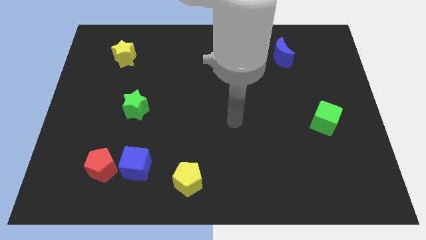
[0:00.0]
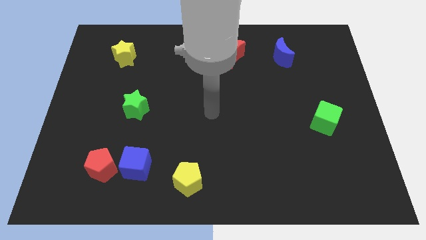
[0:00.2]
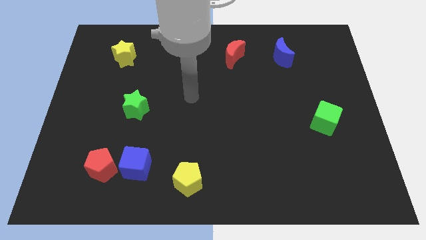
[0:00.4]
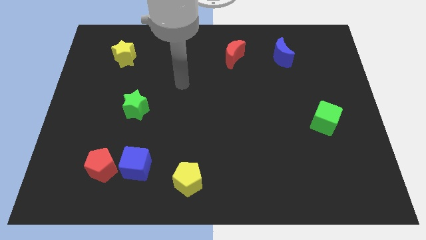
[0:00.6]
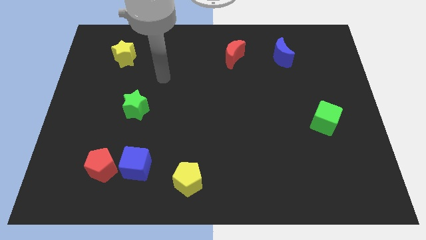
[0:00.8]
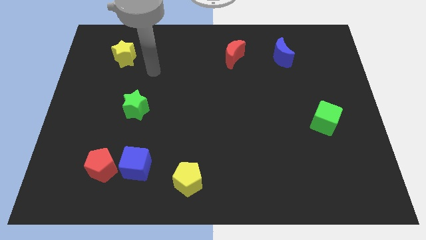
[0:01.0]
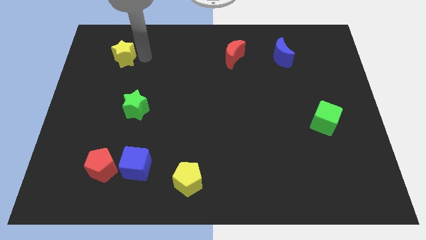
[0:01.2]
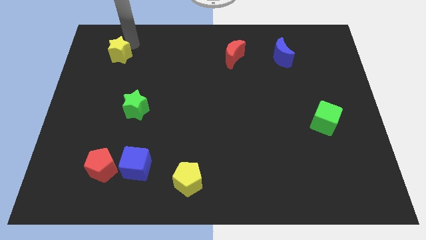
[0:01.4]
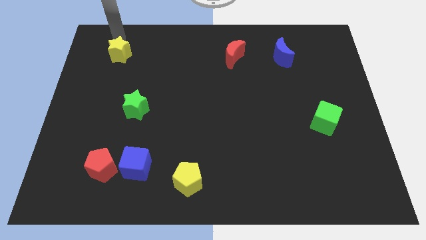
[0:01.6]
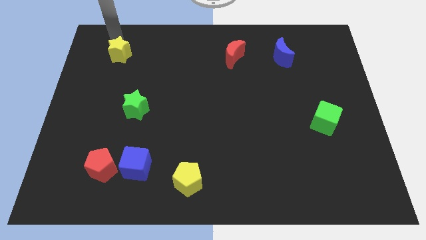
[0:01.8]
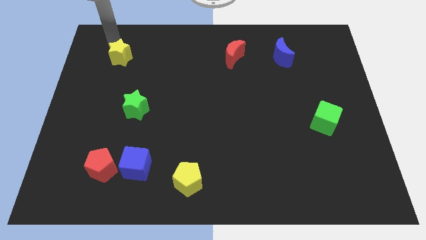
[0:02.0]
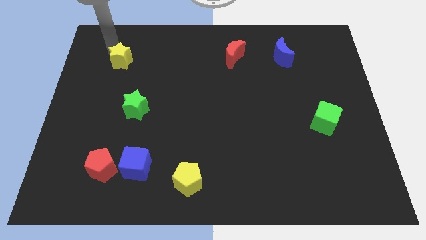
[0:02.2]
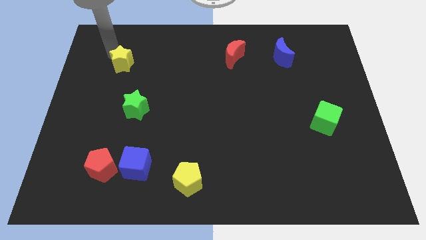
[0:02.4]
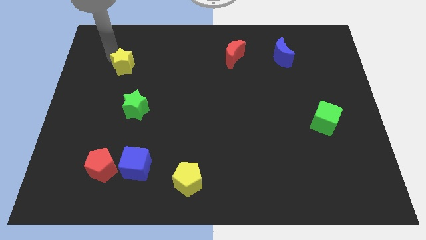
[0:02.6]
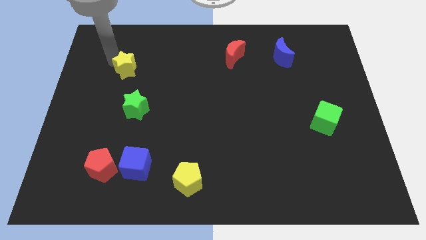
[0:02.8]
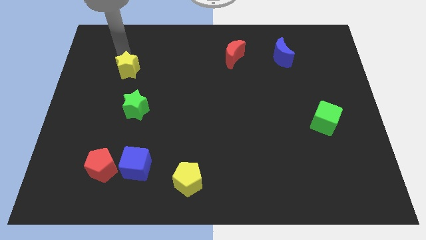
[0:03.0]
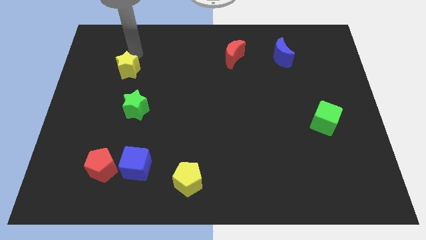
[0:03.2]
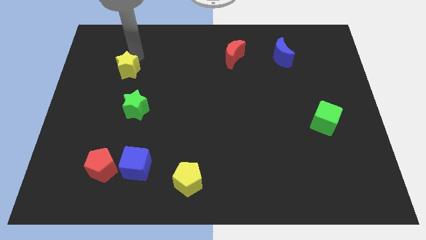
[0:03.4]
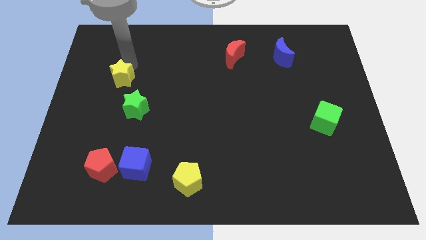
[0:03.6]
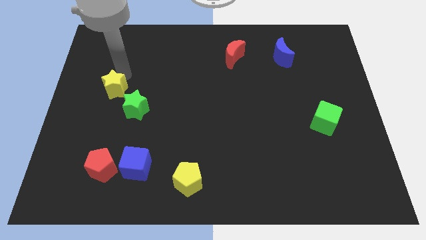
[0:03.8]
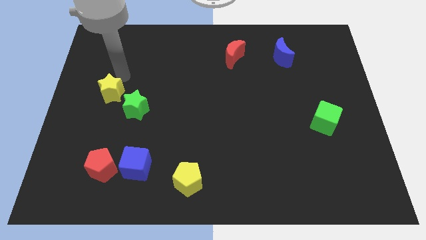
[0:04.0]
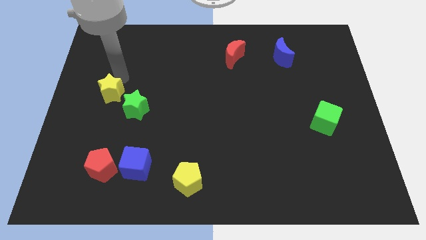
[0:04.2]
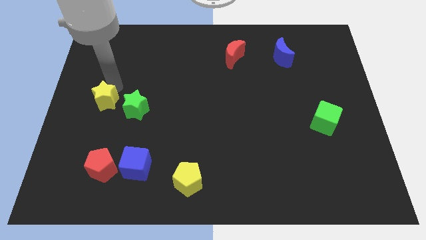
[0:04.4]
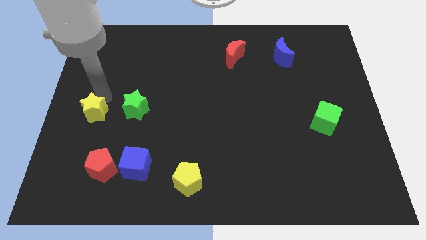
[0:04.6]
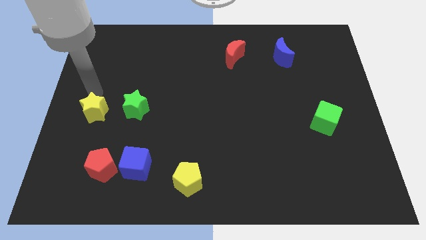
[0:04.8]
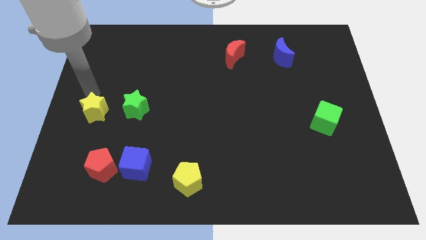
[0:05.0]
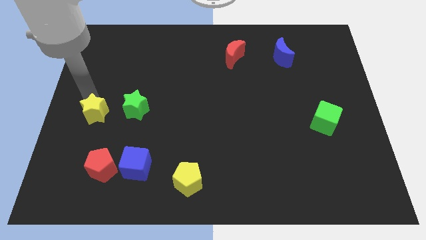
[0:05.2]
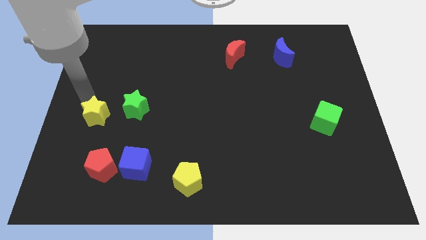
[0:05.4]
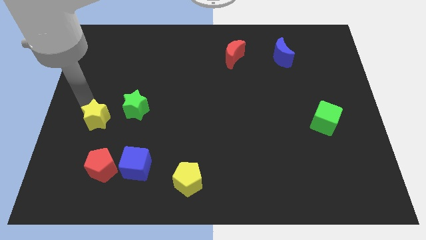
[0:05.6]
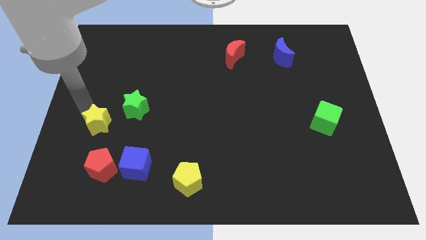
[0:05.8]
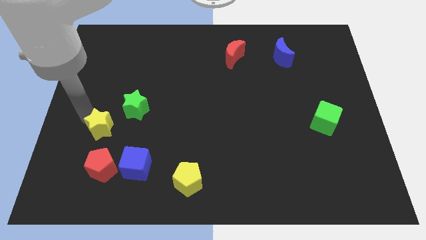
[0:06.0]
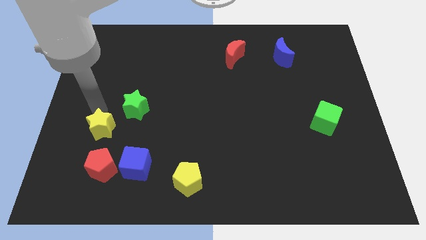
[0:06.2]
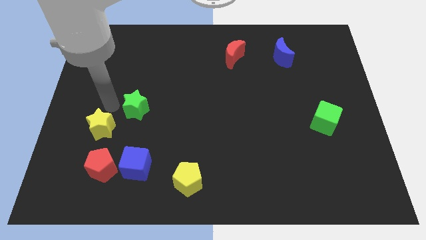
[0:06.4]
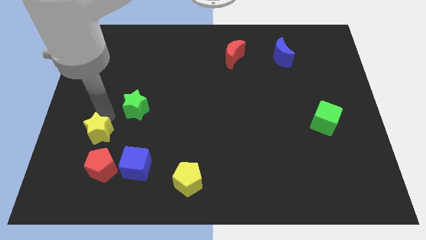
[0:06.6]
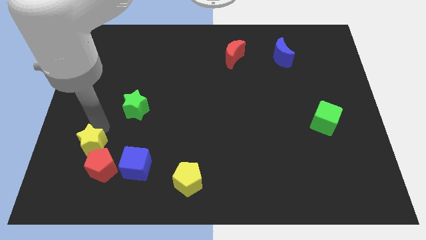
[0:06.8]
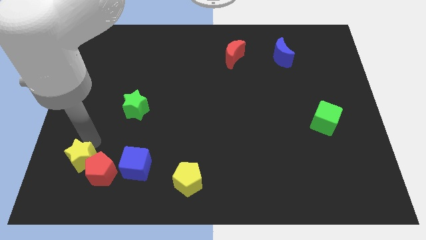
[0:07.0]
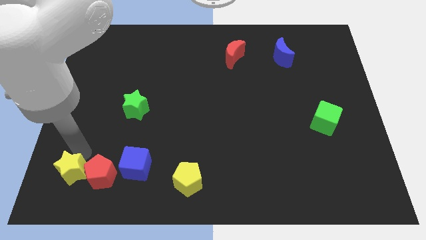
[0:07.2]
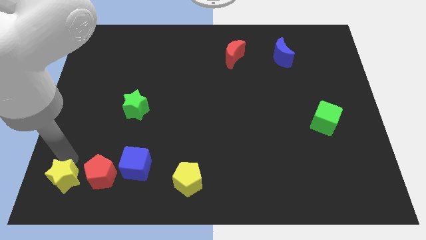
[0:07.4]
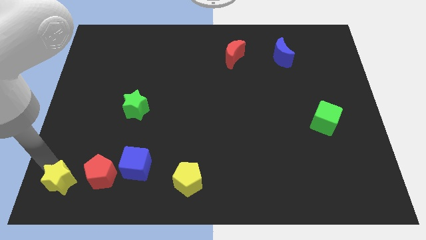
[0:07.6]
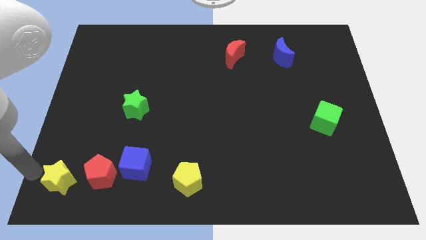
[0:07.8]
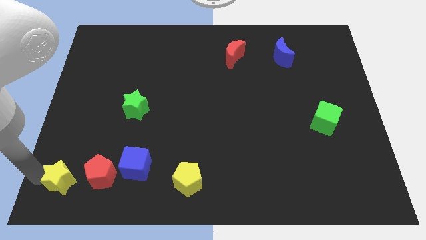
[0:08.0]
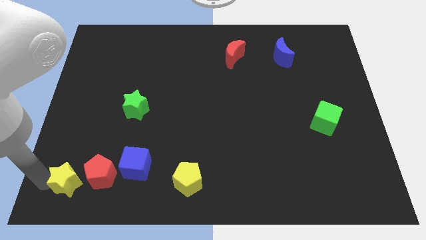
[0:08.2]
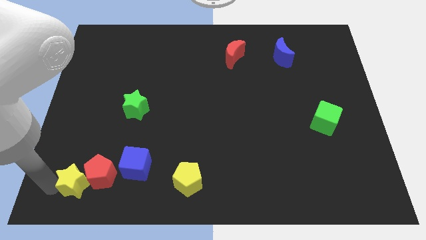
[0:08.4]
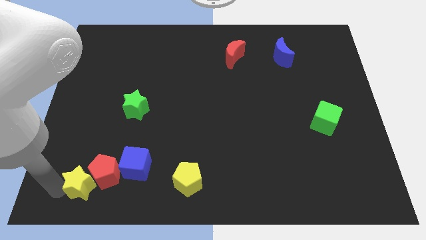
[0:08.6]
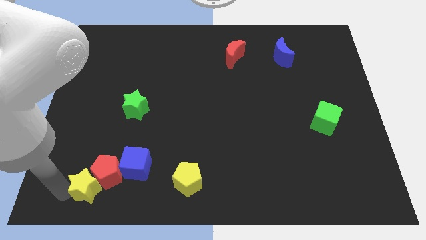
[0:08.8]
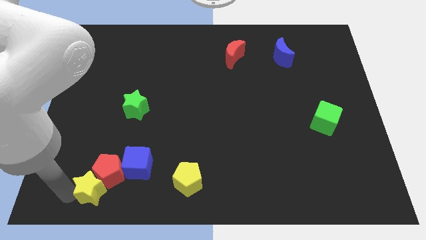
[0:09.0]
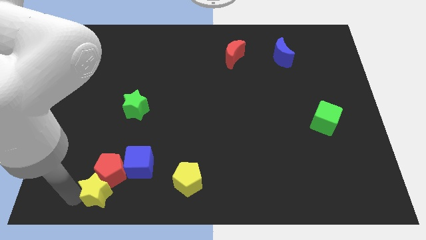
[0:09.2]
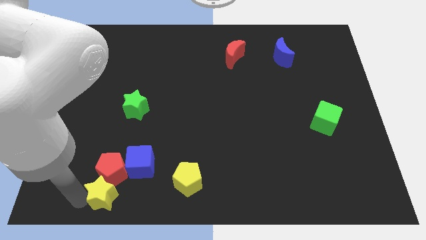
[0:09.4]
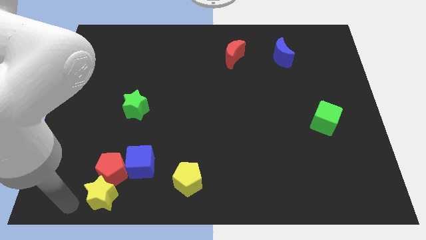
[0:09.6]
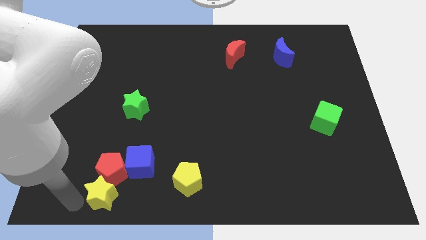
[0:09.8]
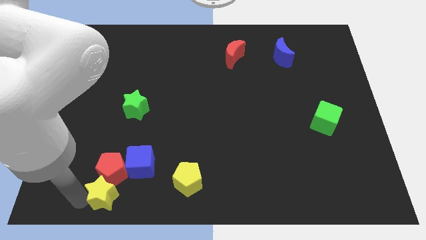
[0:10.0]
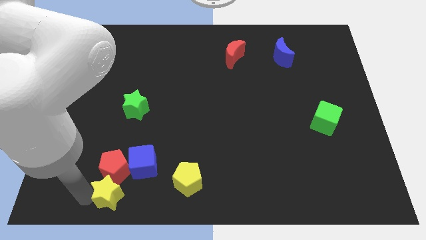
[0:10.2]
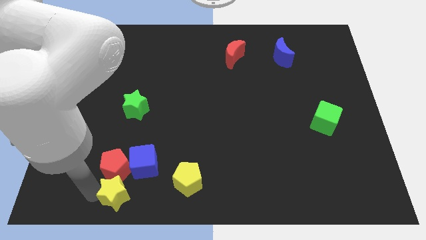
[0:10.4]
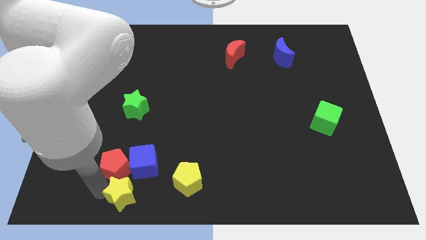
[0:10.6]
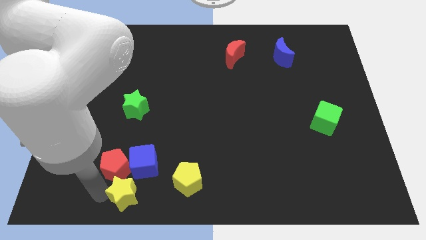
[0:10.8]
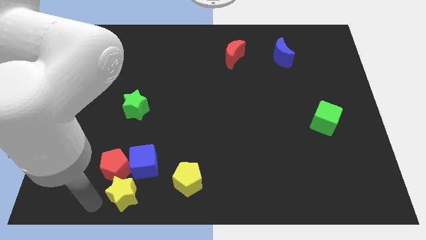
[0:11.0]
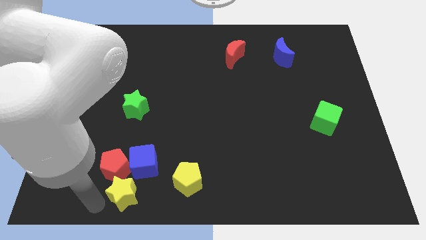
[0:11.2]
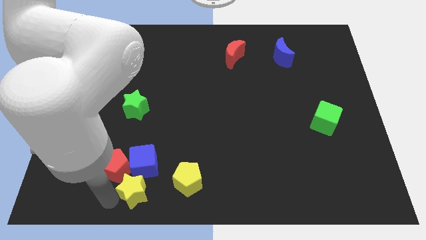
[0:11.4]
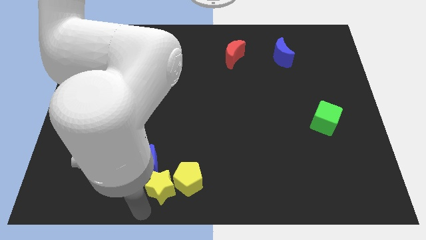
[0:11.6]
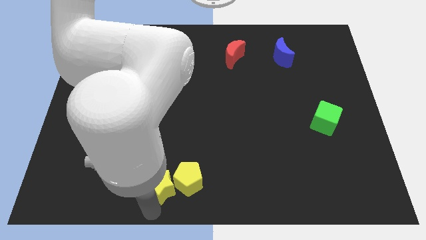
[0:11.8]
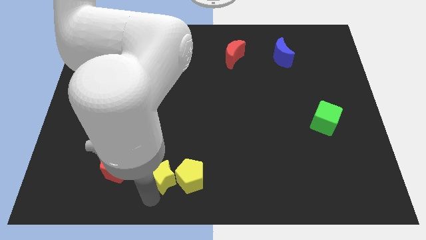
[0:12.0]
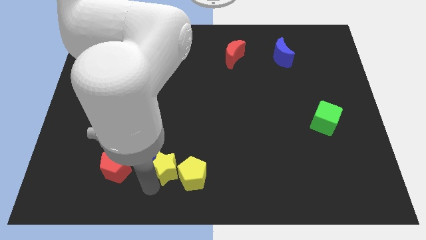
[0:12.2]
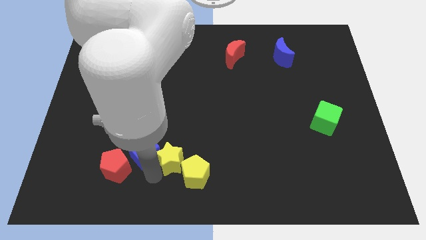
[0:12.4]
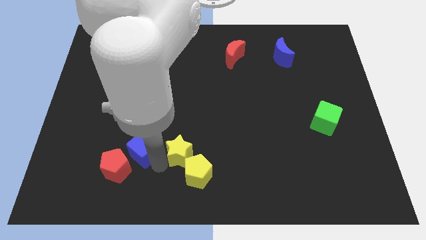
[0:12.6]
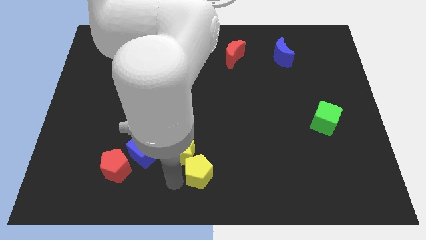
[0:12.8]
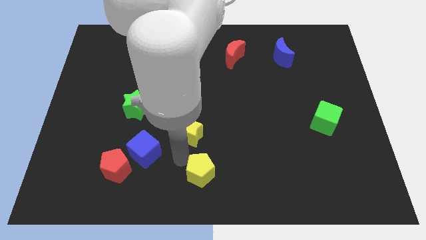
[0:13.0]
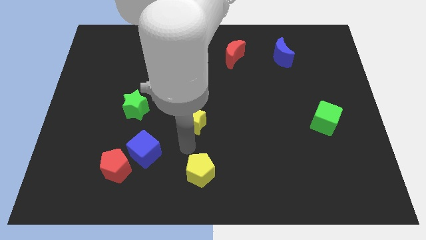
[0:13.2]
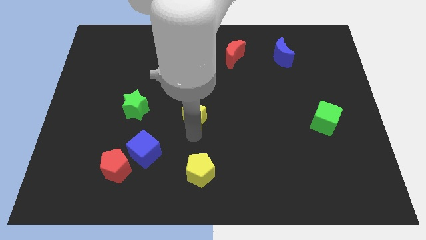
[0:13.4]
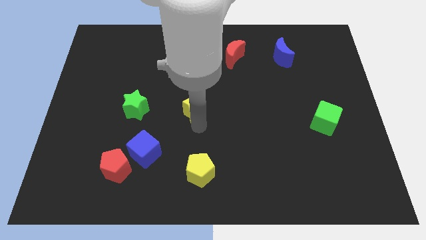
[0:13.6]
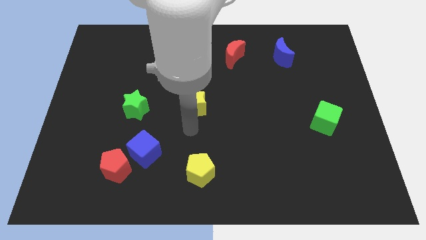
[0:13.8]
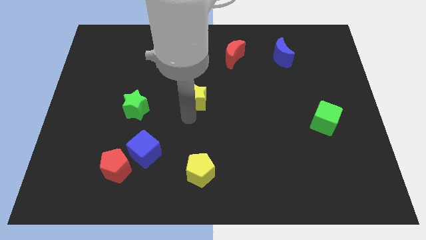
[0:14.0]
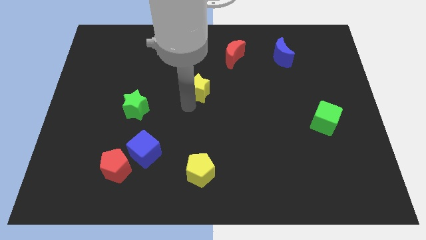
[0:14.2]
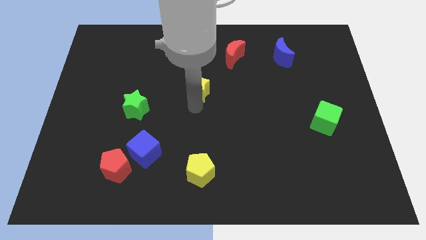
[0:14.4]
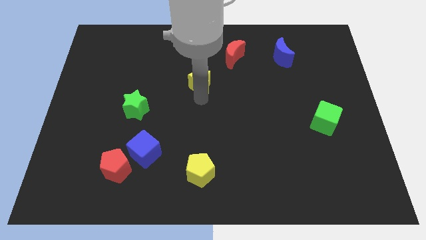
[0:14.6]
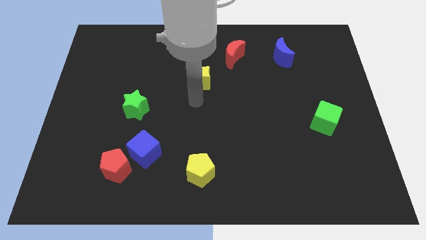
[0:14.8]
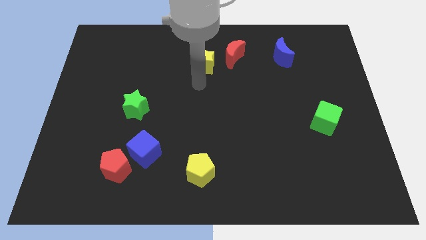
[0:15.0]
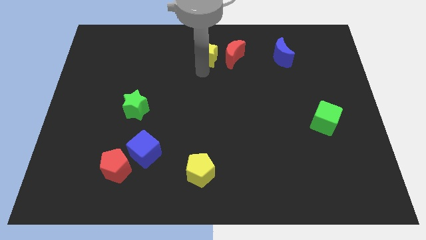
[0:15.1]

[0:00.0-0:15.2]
put the yellow star to the towards your base
